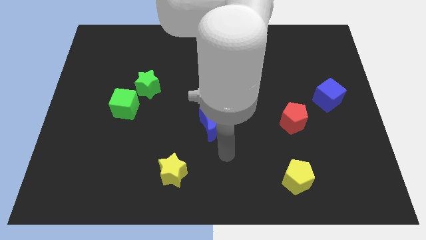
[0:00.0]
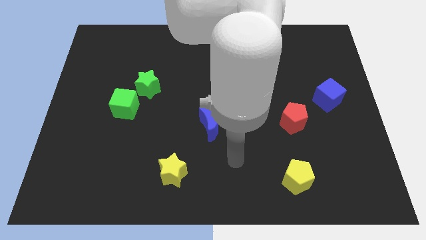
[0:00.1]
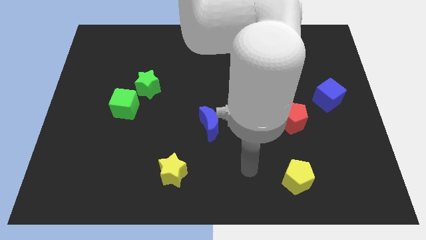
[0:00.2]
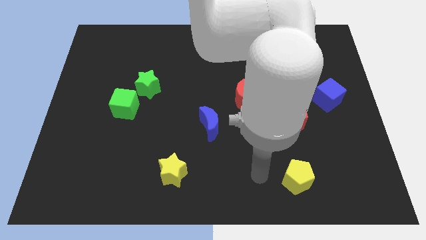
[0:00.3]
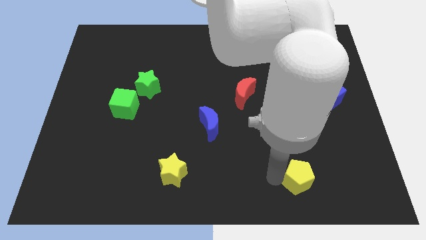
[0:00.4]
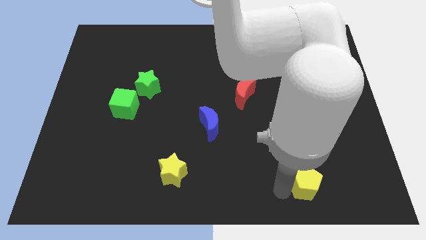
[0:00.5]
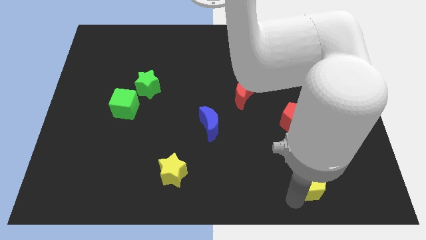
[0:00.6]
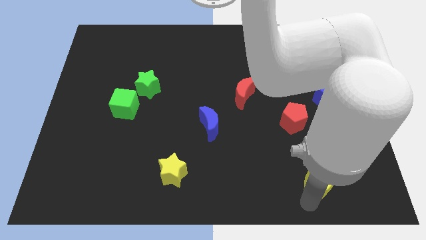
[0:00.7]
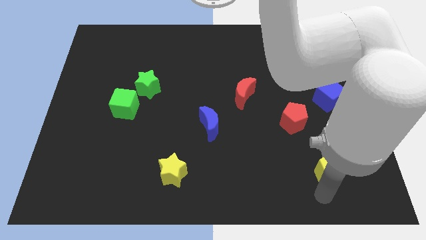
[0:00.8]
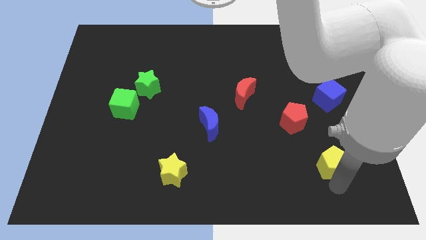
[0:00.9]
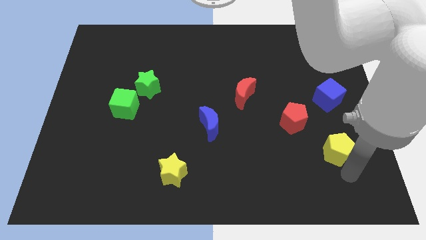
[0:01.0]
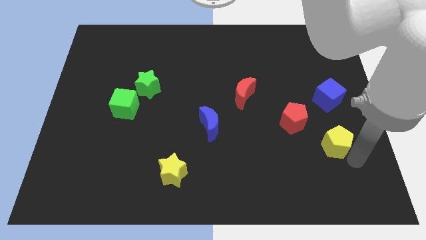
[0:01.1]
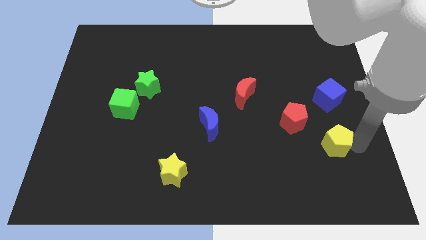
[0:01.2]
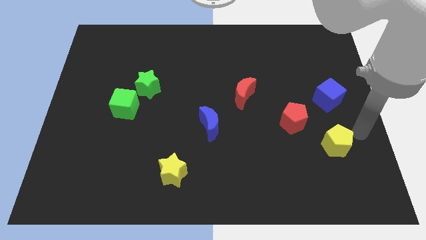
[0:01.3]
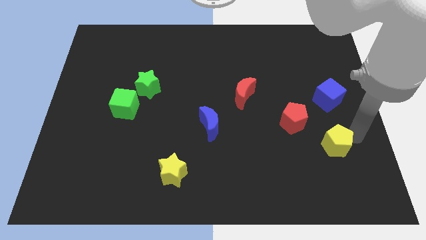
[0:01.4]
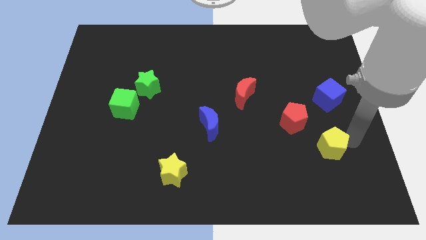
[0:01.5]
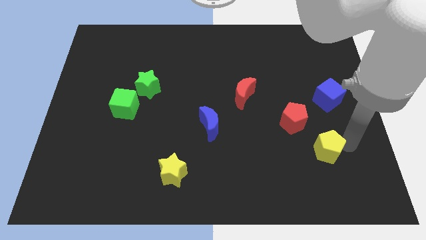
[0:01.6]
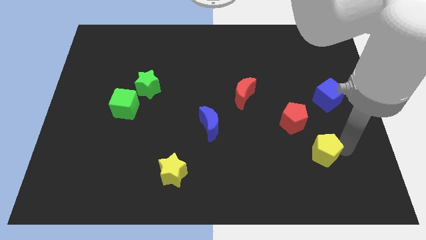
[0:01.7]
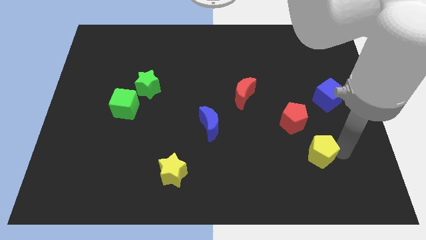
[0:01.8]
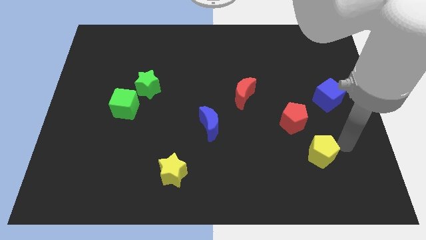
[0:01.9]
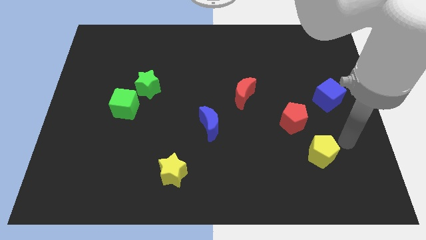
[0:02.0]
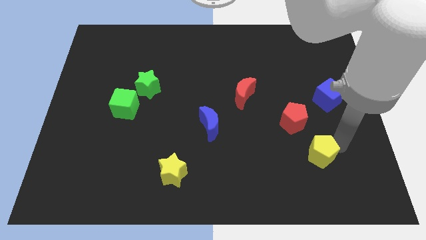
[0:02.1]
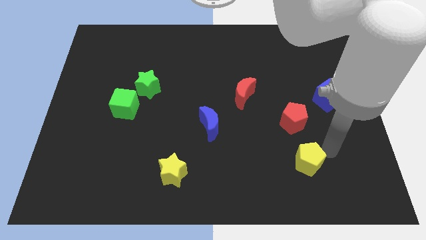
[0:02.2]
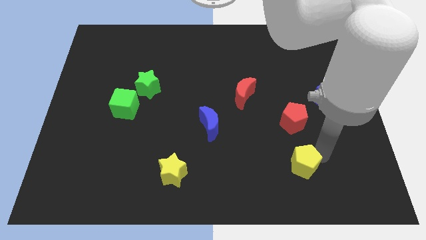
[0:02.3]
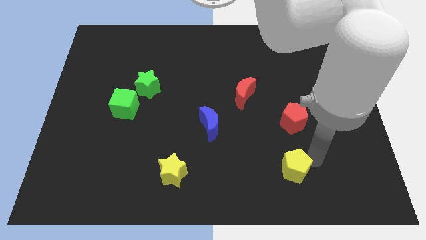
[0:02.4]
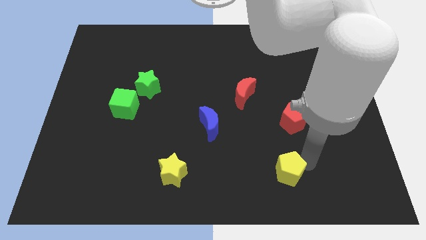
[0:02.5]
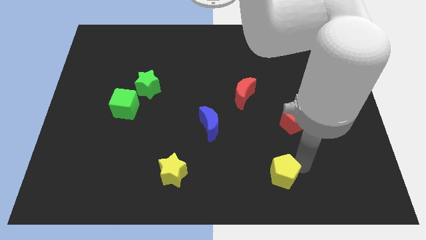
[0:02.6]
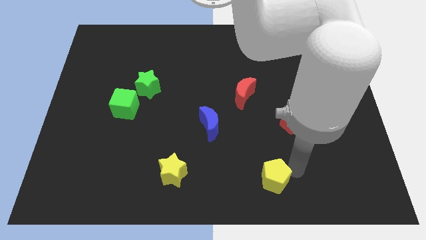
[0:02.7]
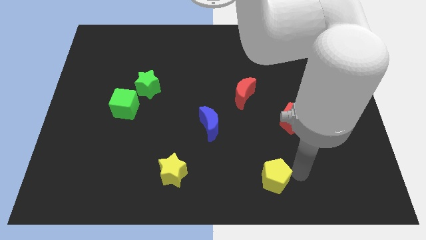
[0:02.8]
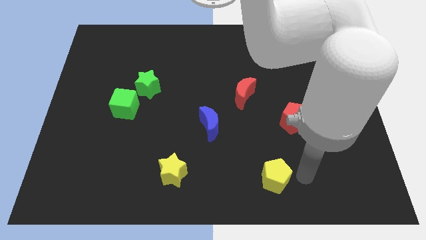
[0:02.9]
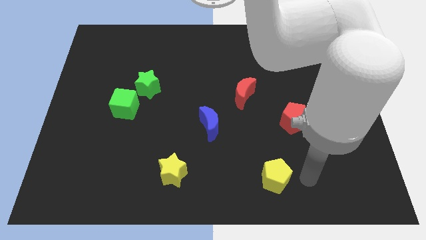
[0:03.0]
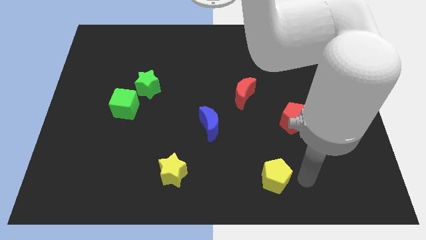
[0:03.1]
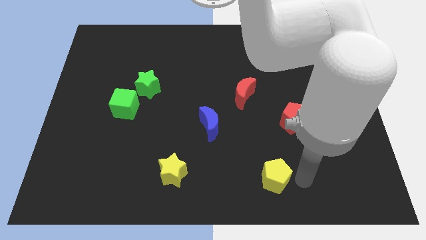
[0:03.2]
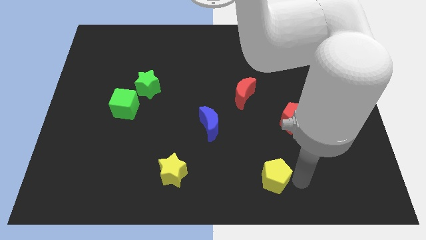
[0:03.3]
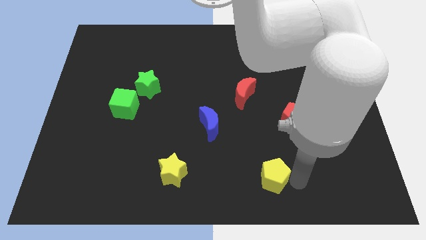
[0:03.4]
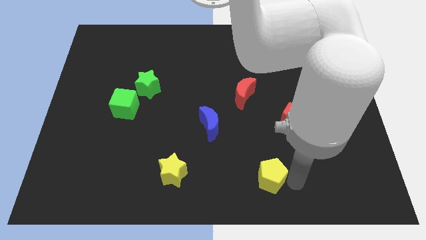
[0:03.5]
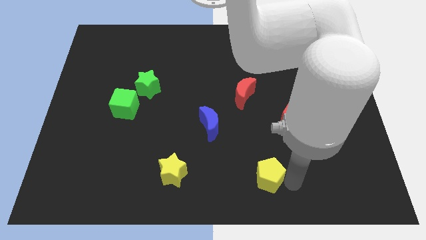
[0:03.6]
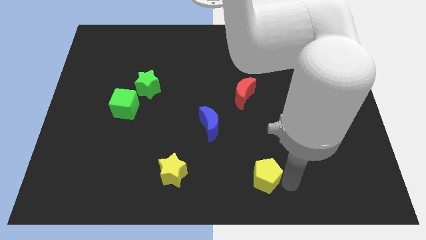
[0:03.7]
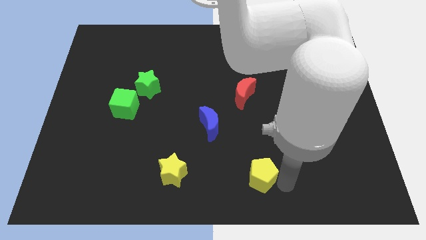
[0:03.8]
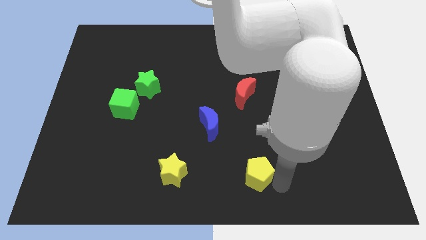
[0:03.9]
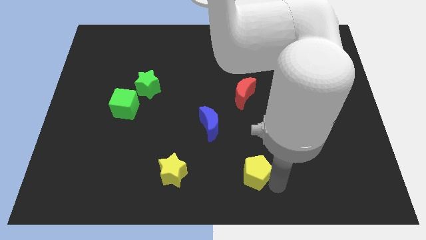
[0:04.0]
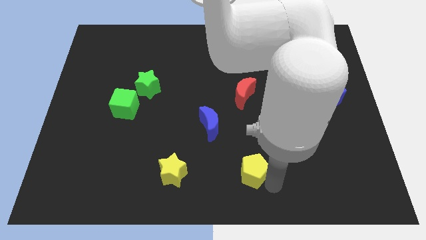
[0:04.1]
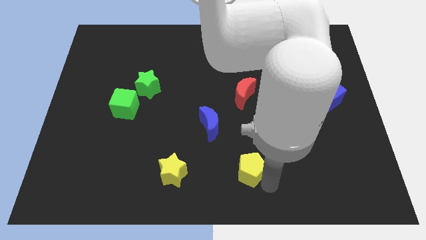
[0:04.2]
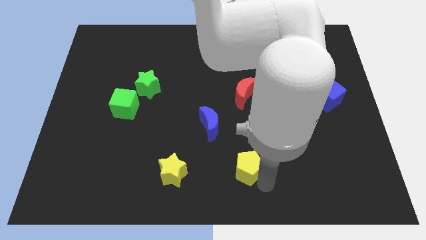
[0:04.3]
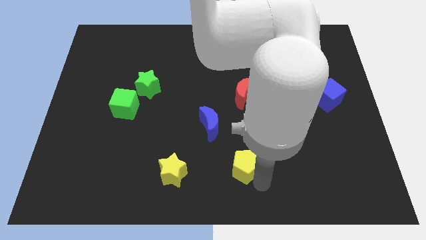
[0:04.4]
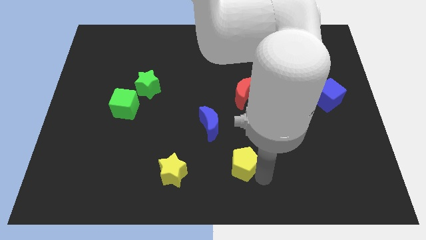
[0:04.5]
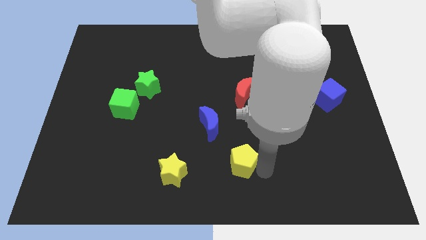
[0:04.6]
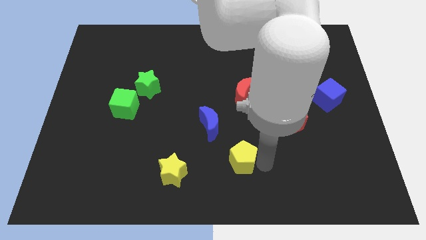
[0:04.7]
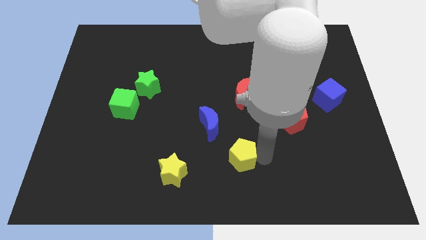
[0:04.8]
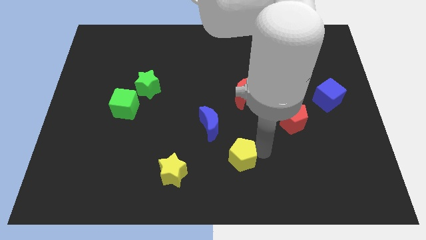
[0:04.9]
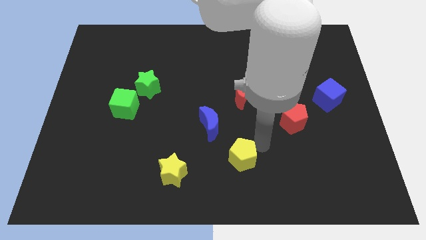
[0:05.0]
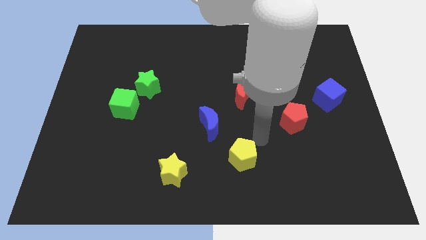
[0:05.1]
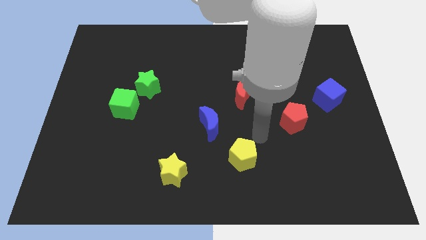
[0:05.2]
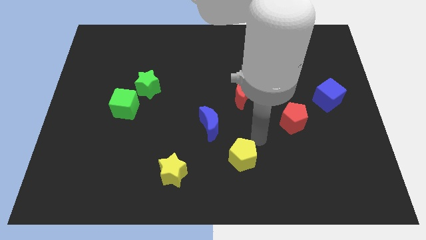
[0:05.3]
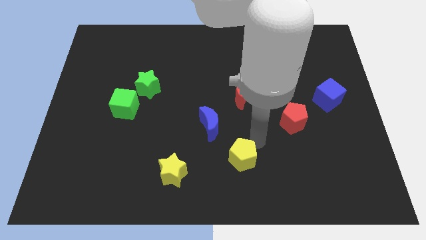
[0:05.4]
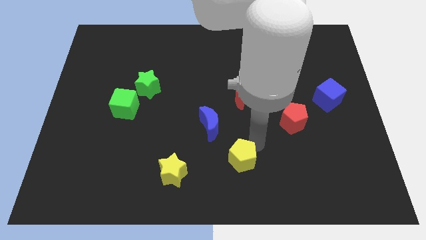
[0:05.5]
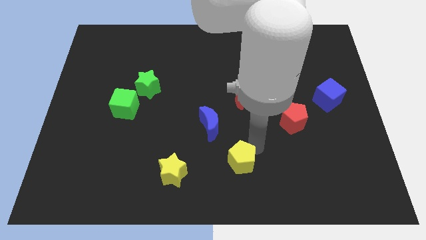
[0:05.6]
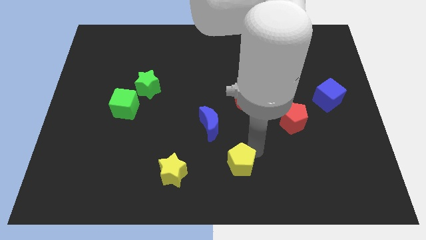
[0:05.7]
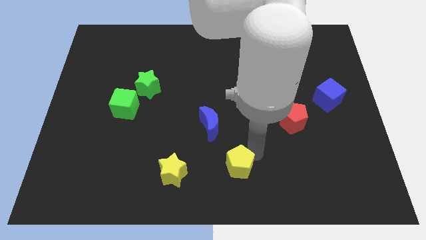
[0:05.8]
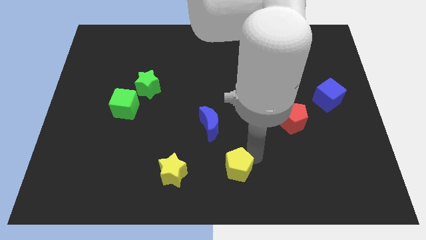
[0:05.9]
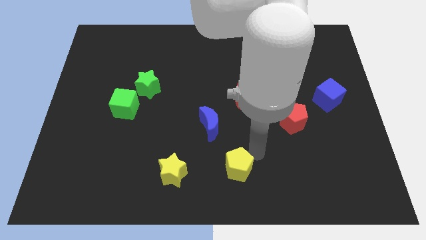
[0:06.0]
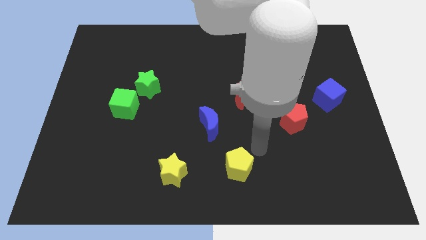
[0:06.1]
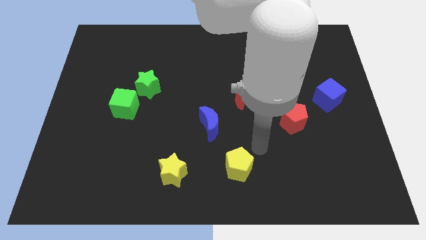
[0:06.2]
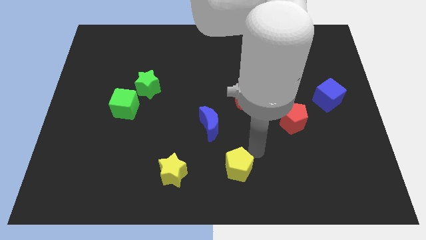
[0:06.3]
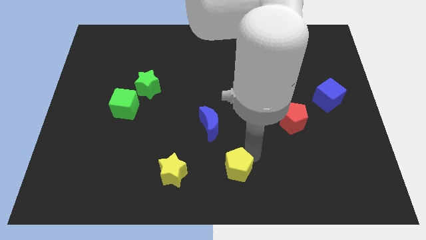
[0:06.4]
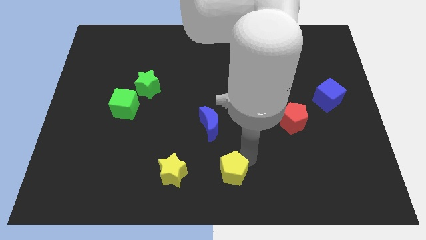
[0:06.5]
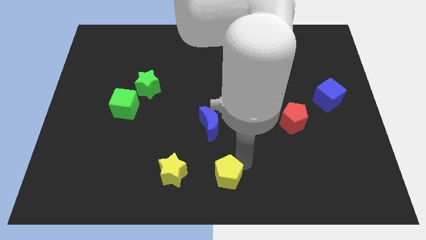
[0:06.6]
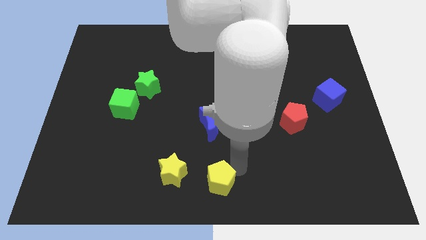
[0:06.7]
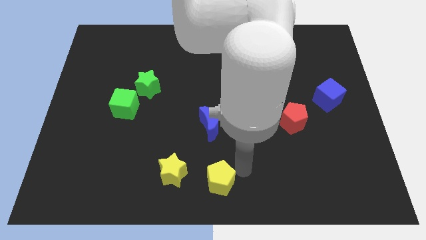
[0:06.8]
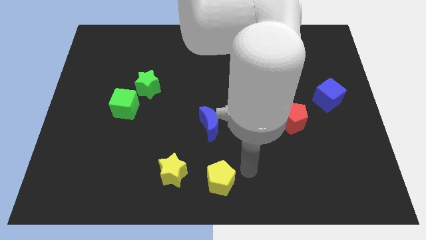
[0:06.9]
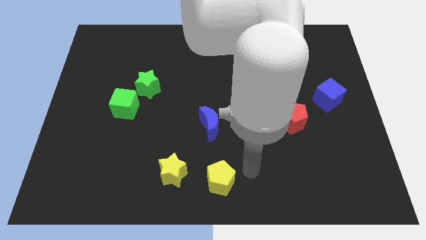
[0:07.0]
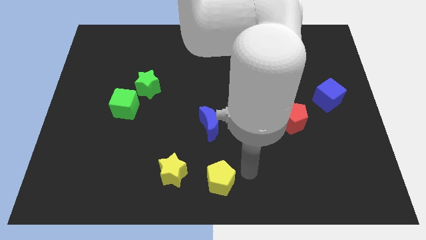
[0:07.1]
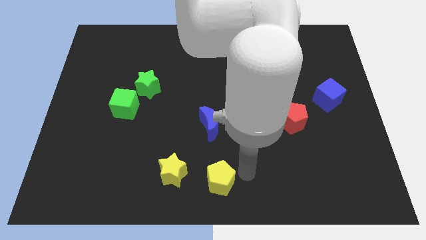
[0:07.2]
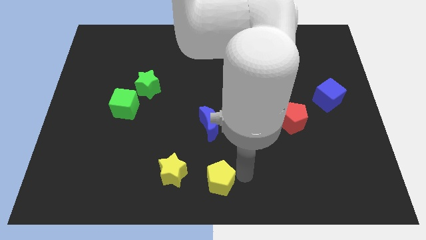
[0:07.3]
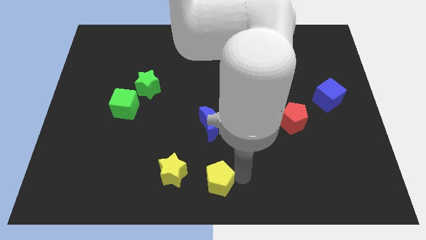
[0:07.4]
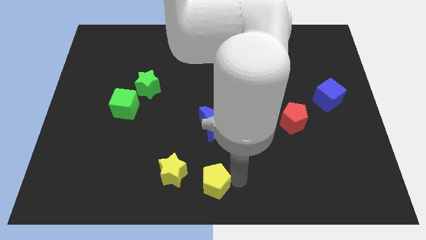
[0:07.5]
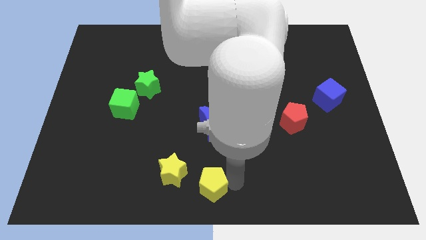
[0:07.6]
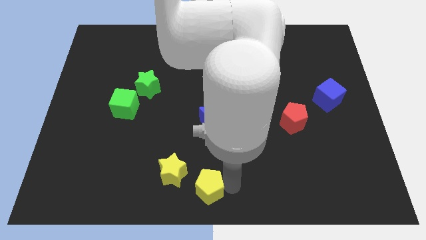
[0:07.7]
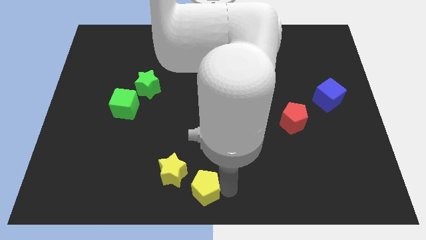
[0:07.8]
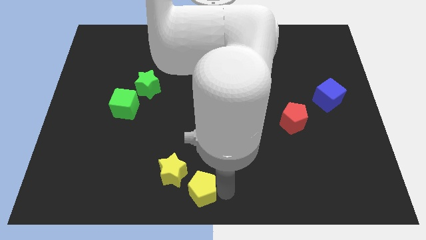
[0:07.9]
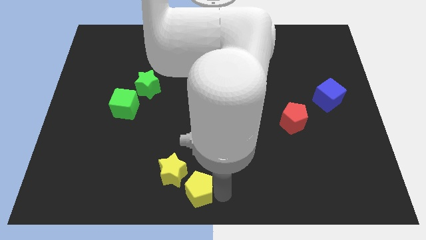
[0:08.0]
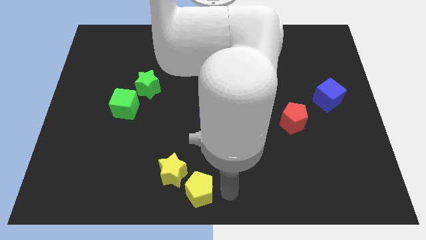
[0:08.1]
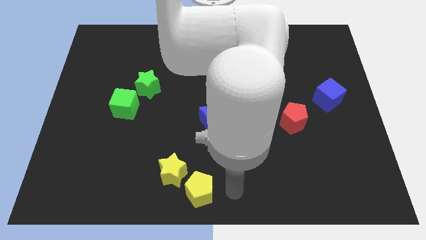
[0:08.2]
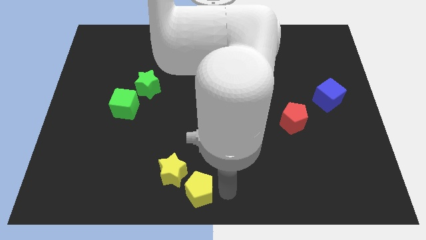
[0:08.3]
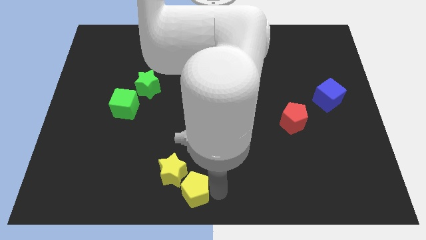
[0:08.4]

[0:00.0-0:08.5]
push the yellow pentagon left
